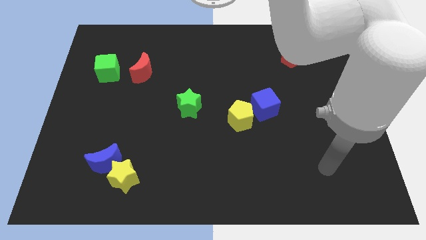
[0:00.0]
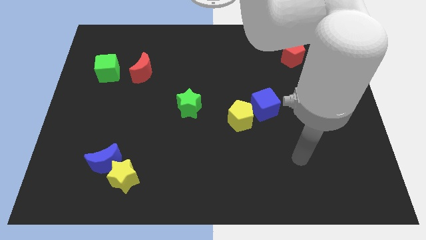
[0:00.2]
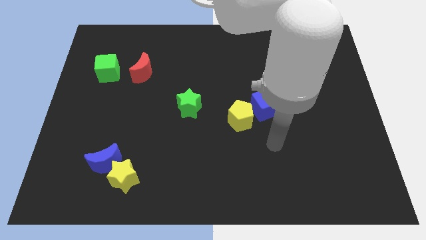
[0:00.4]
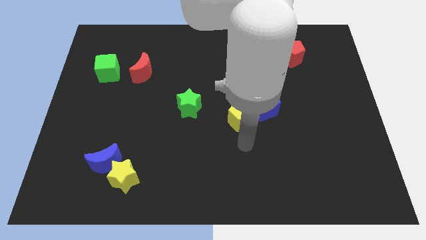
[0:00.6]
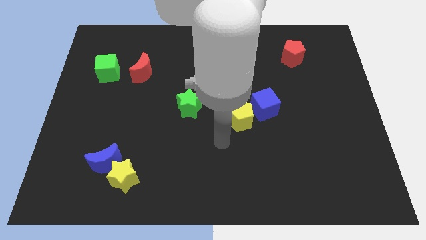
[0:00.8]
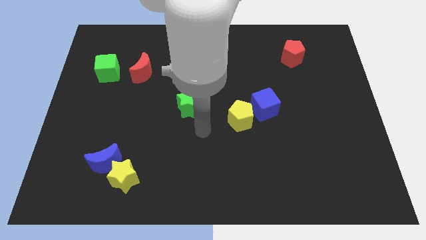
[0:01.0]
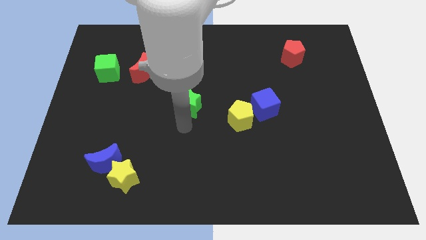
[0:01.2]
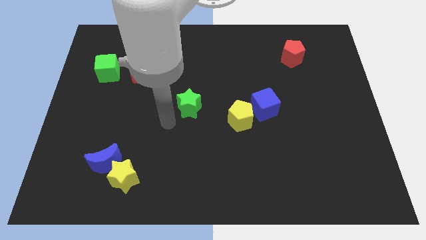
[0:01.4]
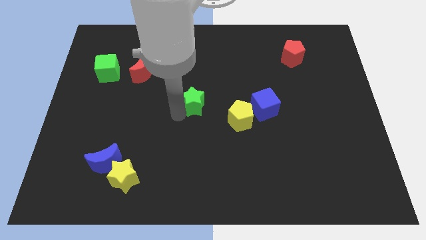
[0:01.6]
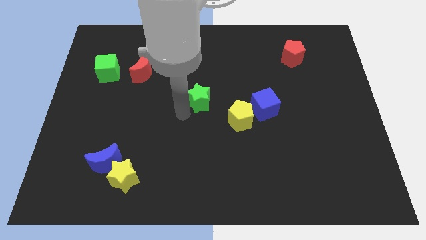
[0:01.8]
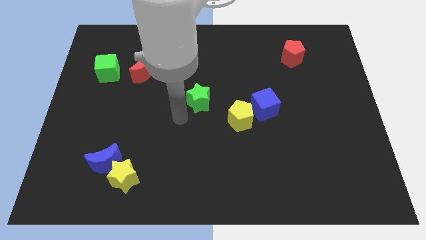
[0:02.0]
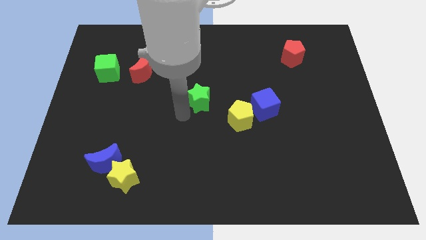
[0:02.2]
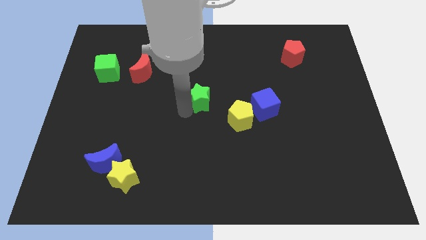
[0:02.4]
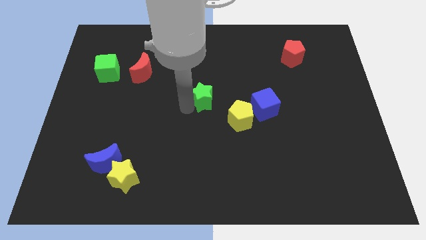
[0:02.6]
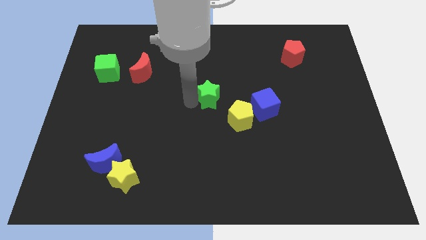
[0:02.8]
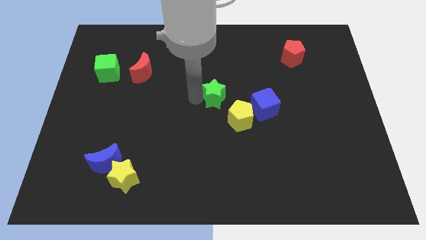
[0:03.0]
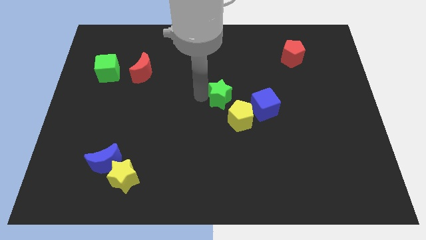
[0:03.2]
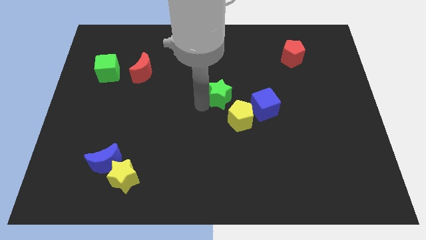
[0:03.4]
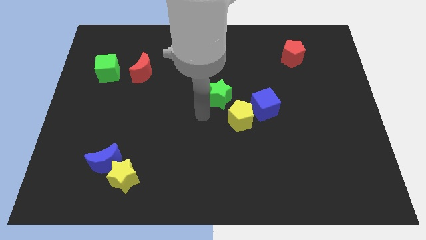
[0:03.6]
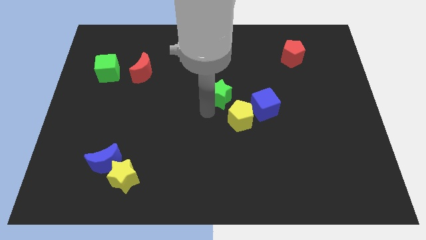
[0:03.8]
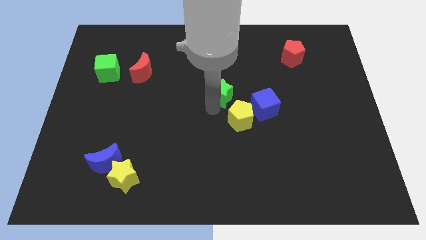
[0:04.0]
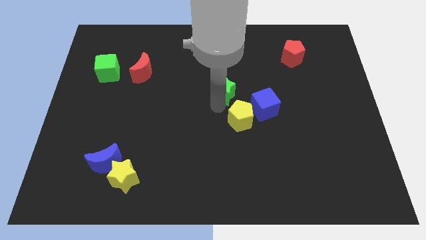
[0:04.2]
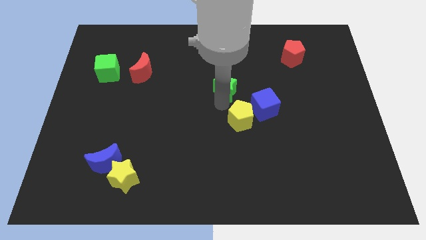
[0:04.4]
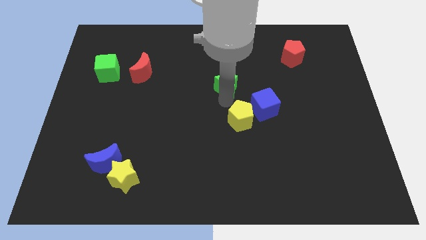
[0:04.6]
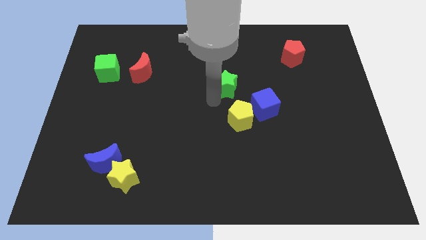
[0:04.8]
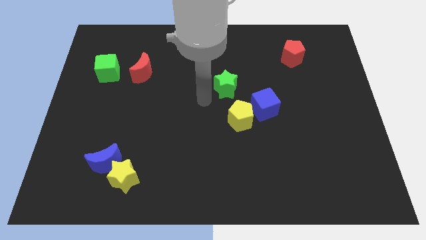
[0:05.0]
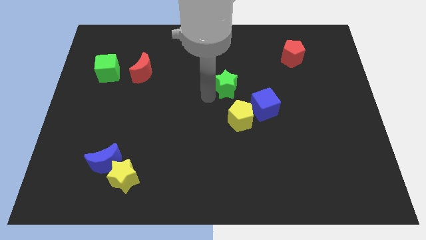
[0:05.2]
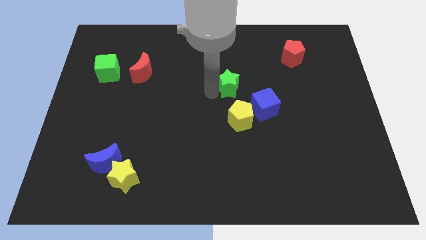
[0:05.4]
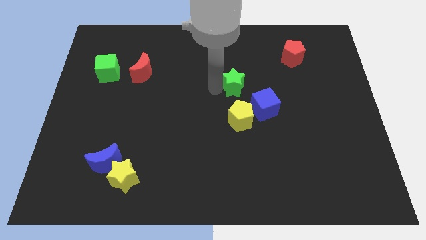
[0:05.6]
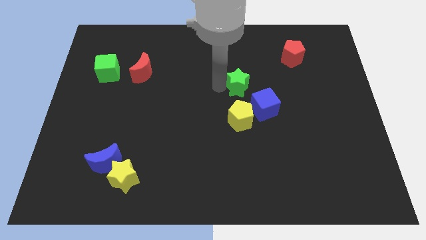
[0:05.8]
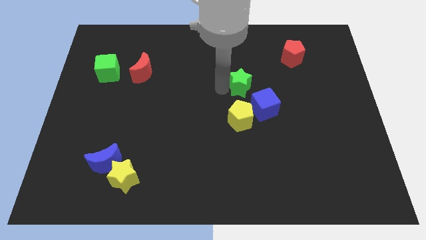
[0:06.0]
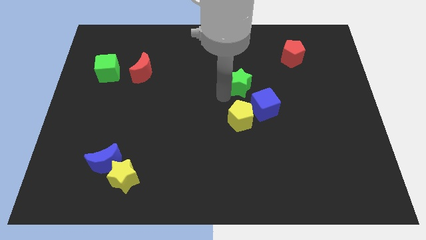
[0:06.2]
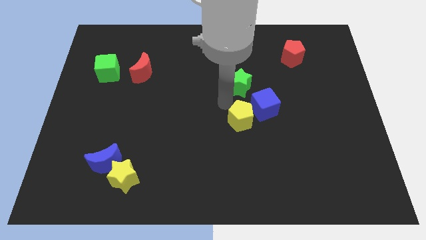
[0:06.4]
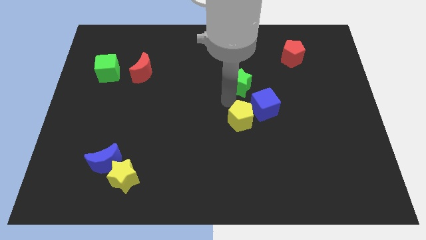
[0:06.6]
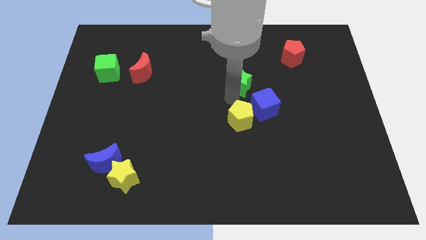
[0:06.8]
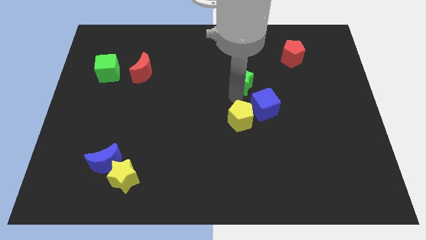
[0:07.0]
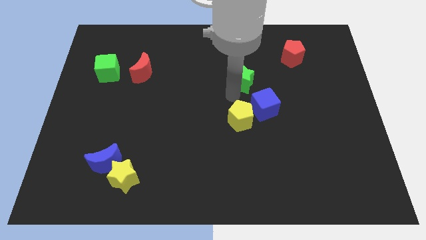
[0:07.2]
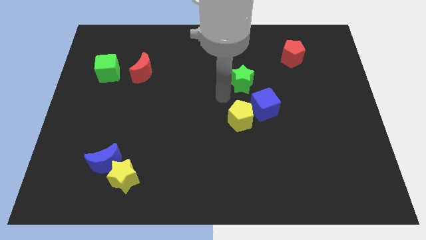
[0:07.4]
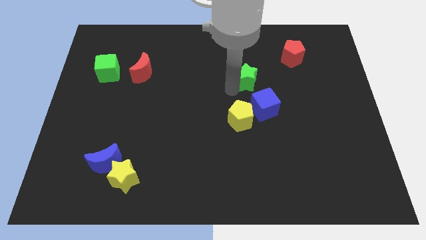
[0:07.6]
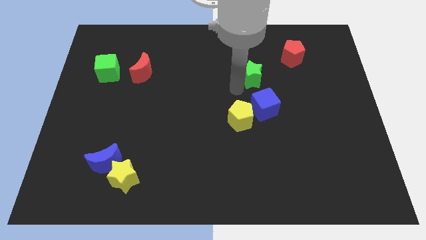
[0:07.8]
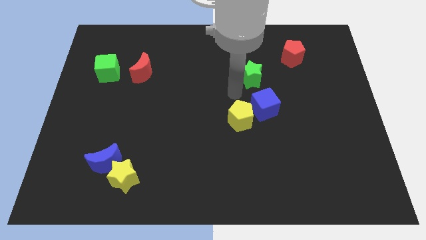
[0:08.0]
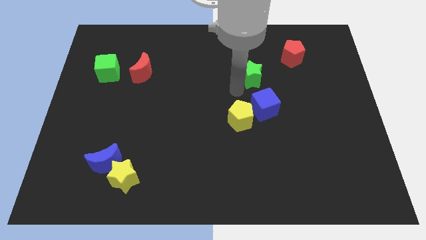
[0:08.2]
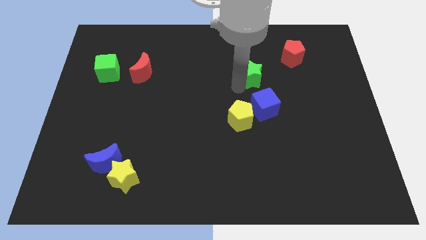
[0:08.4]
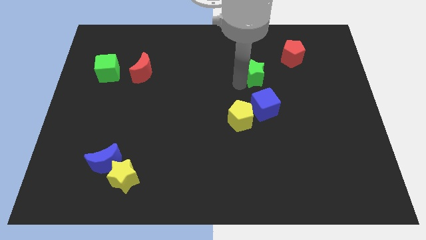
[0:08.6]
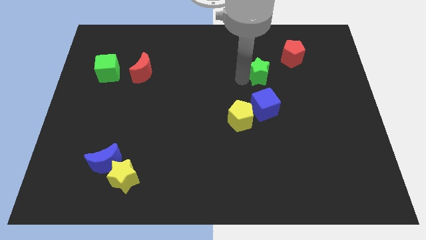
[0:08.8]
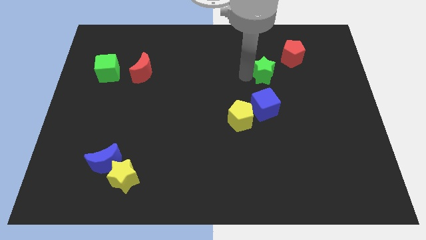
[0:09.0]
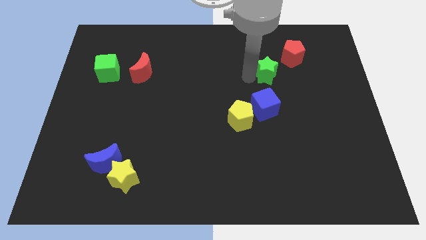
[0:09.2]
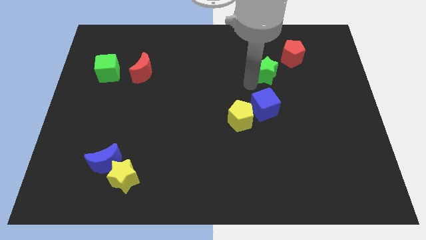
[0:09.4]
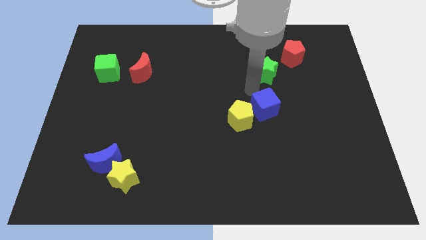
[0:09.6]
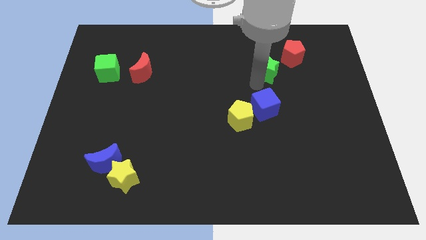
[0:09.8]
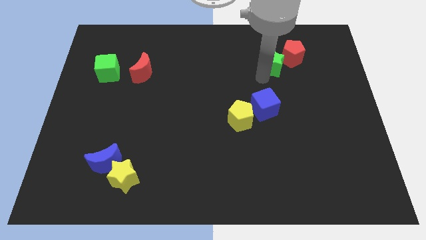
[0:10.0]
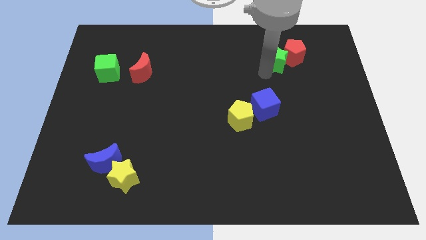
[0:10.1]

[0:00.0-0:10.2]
push the green star towards the red pentagon

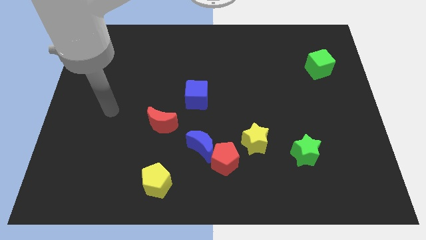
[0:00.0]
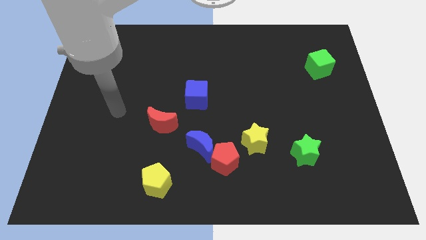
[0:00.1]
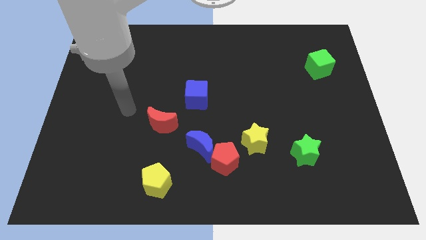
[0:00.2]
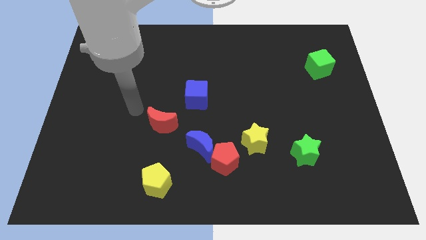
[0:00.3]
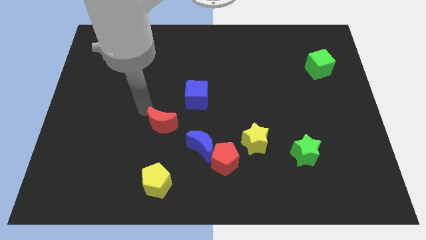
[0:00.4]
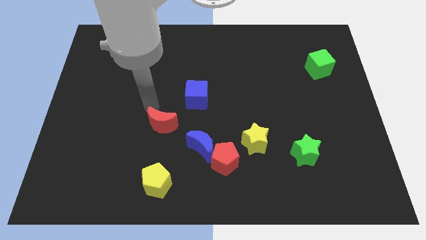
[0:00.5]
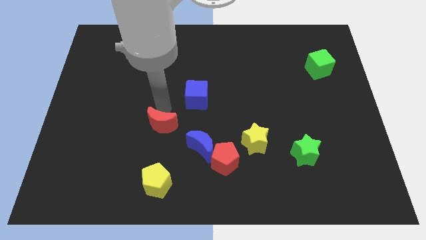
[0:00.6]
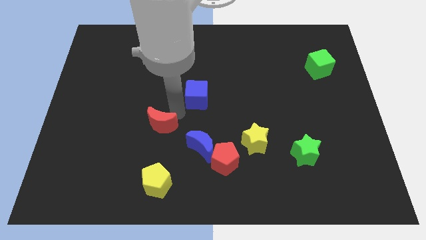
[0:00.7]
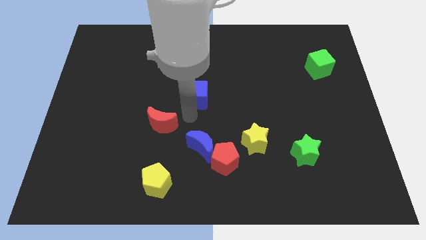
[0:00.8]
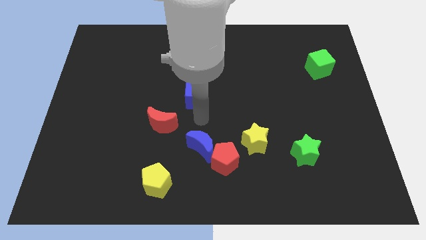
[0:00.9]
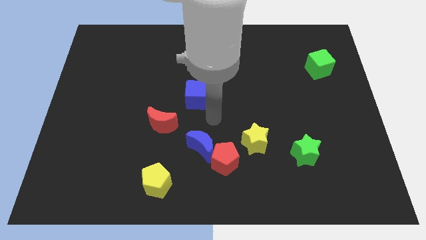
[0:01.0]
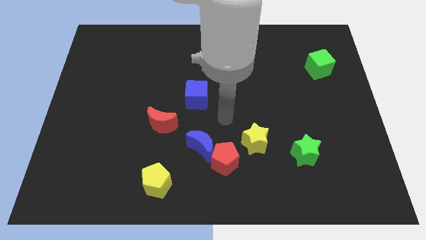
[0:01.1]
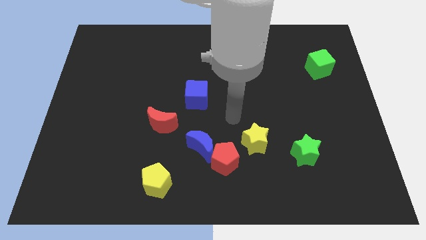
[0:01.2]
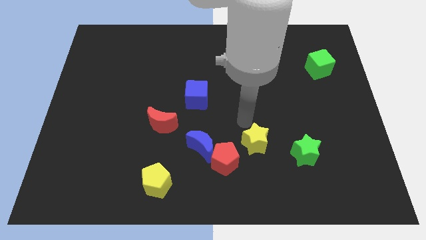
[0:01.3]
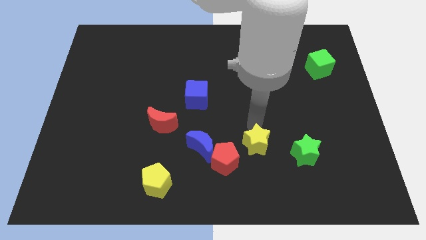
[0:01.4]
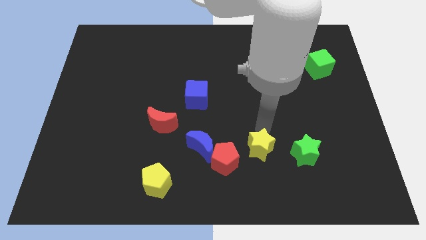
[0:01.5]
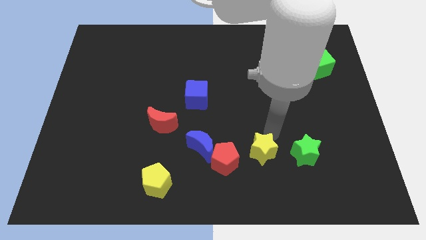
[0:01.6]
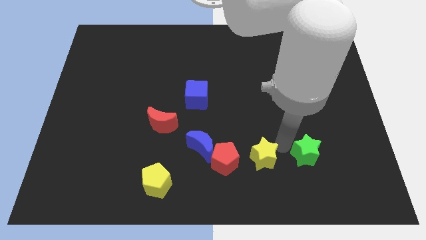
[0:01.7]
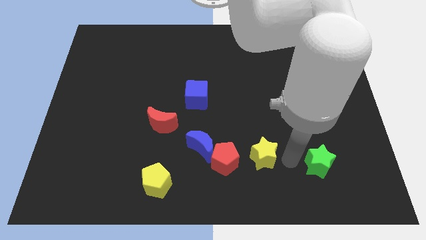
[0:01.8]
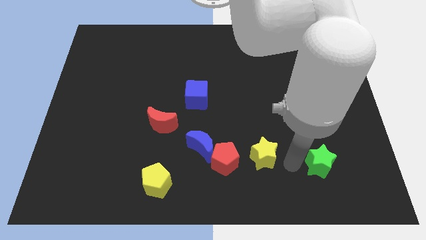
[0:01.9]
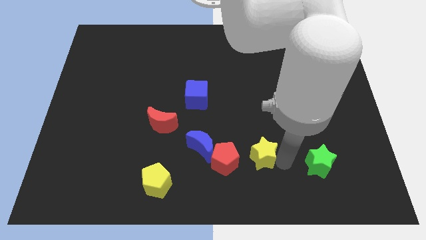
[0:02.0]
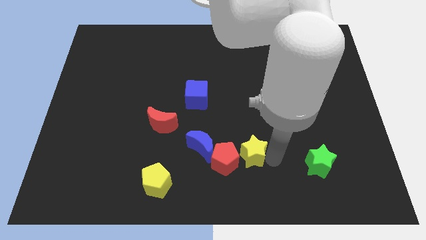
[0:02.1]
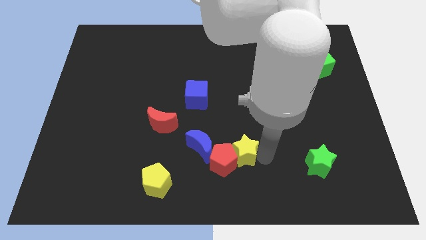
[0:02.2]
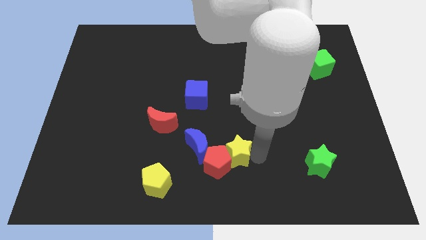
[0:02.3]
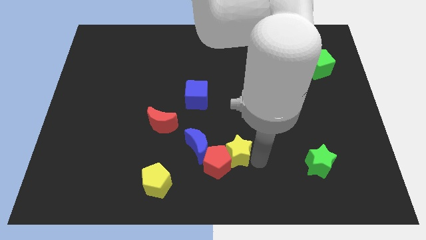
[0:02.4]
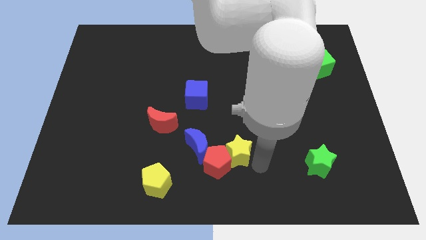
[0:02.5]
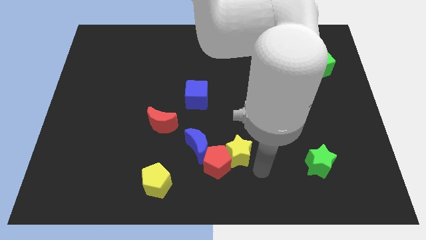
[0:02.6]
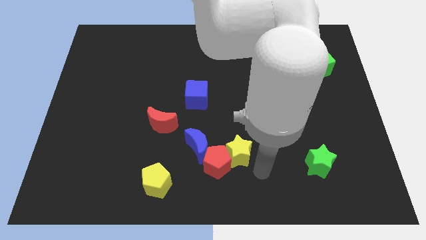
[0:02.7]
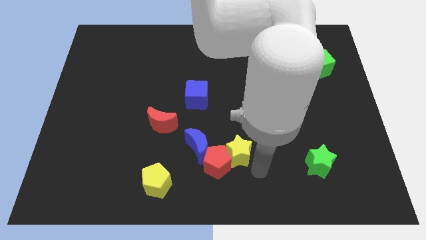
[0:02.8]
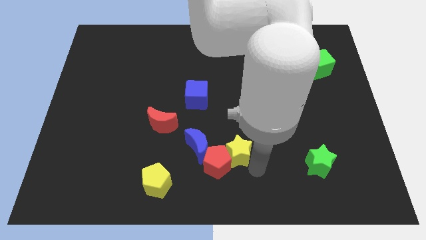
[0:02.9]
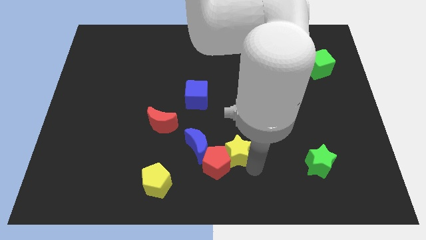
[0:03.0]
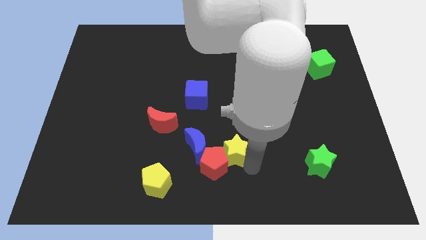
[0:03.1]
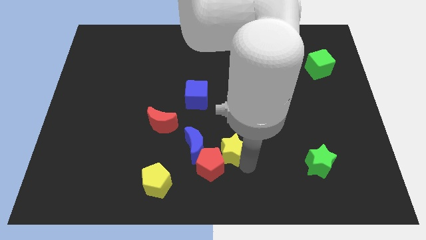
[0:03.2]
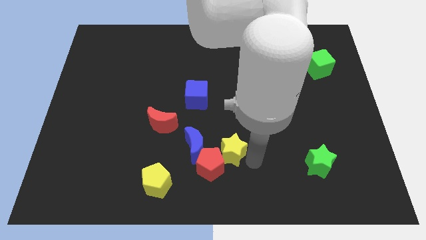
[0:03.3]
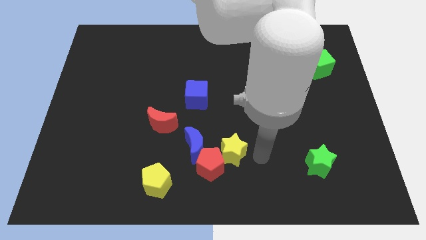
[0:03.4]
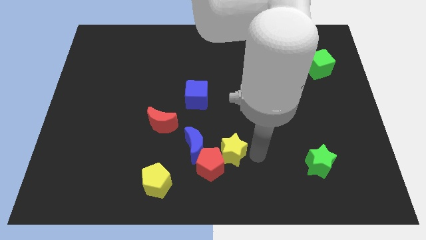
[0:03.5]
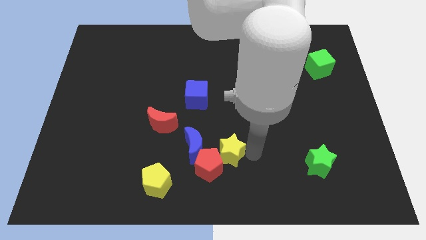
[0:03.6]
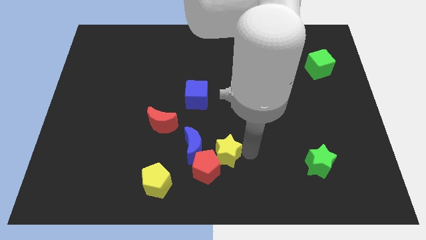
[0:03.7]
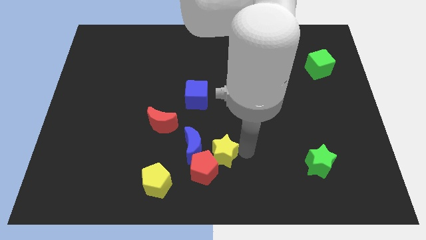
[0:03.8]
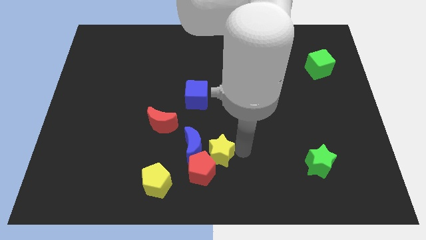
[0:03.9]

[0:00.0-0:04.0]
put the yellow star towards the blue moon
